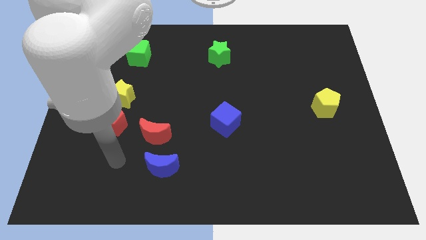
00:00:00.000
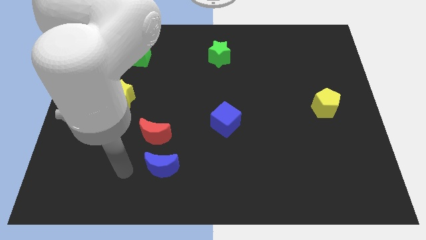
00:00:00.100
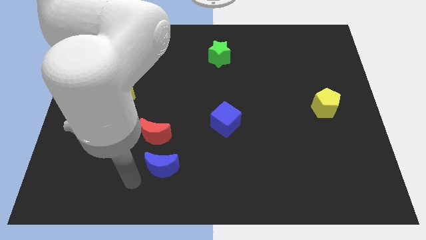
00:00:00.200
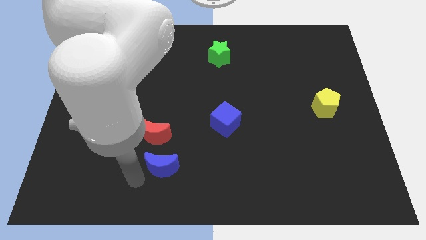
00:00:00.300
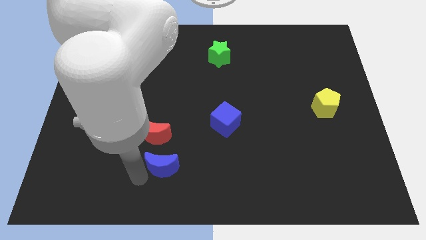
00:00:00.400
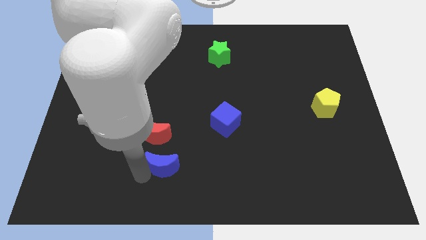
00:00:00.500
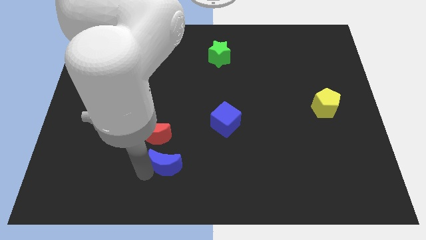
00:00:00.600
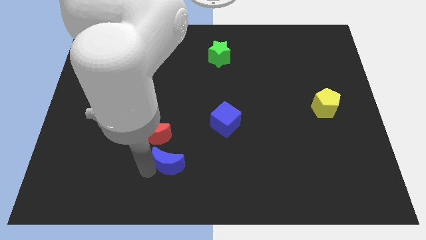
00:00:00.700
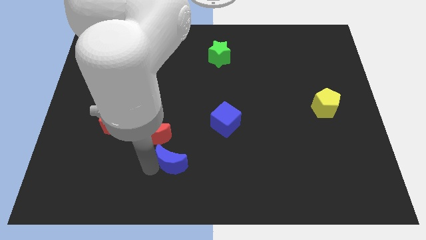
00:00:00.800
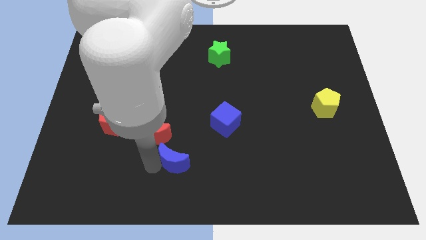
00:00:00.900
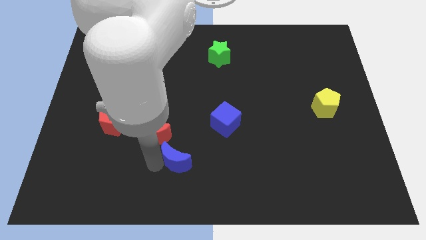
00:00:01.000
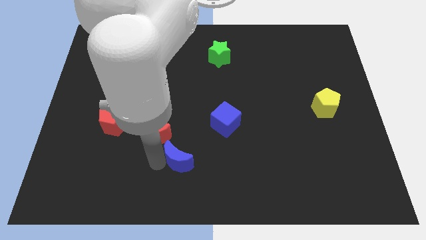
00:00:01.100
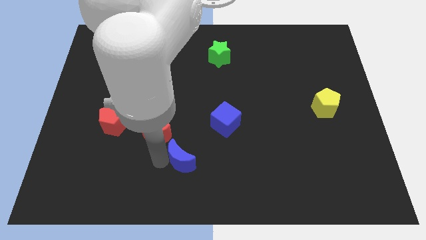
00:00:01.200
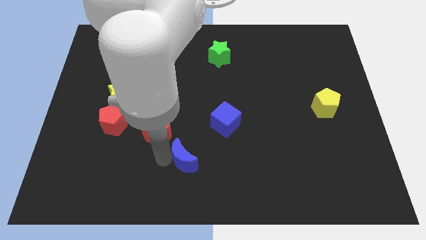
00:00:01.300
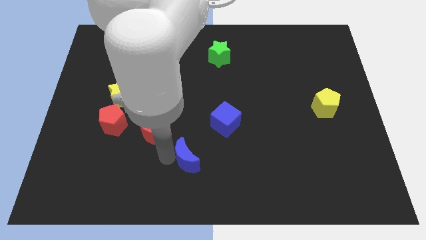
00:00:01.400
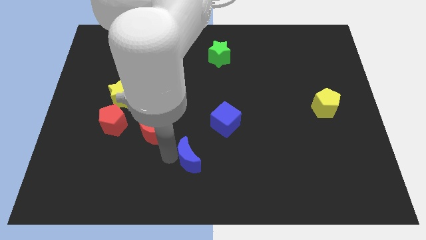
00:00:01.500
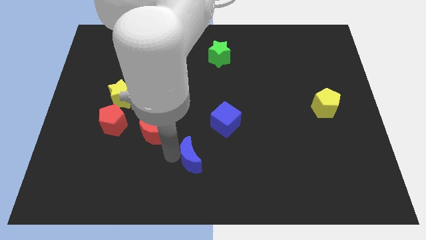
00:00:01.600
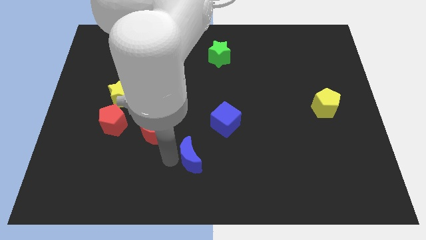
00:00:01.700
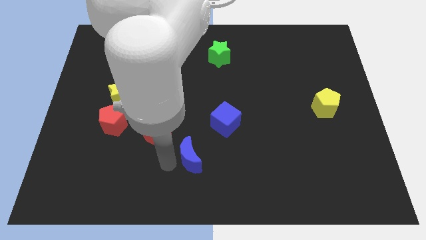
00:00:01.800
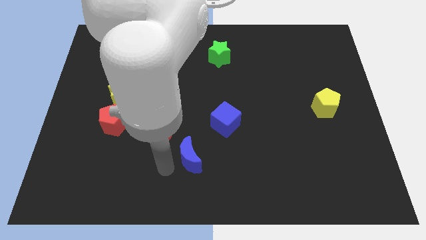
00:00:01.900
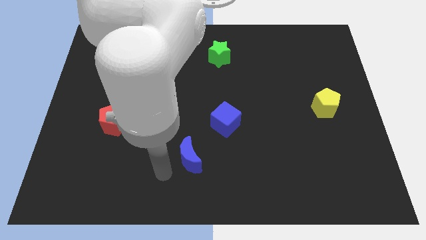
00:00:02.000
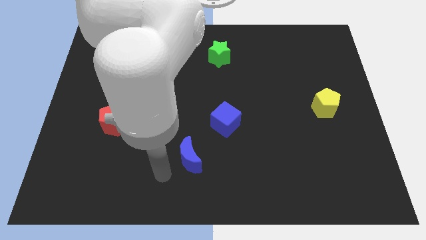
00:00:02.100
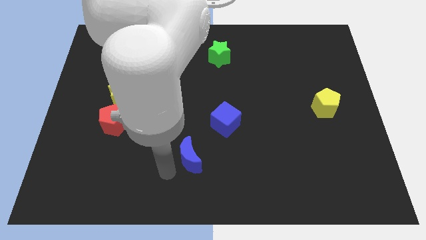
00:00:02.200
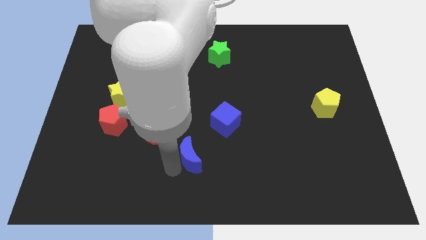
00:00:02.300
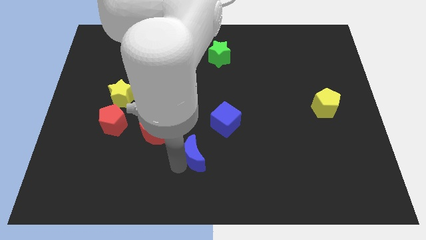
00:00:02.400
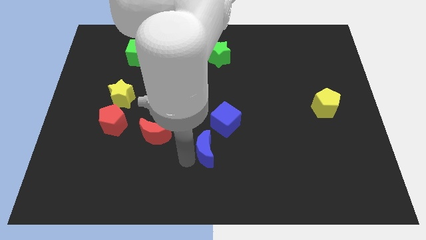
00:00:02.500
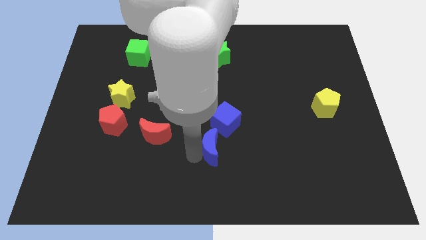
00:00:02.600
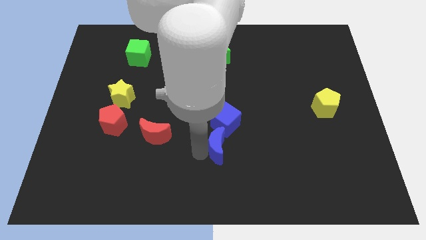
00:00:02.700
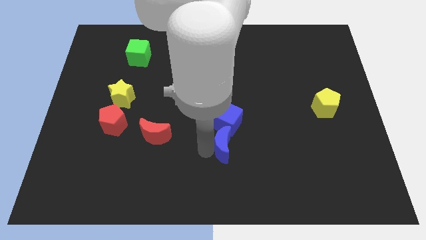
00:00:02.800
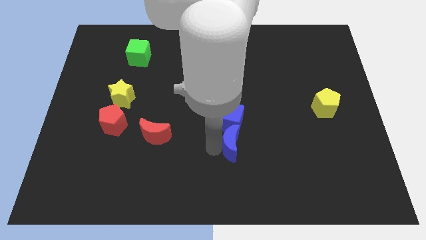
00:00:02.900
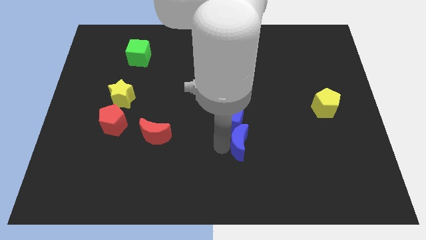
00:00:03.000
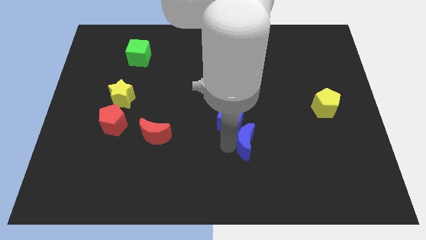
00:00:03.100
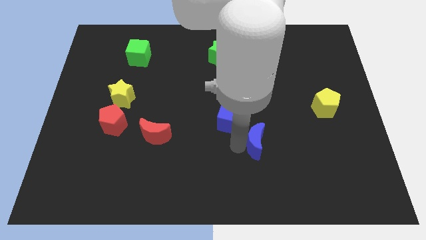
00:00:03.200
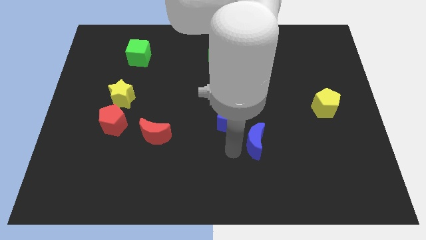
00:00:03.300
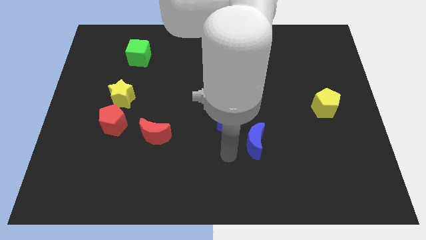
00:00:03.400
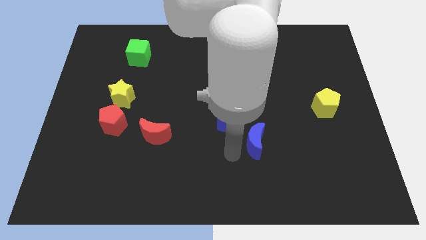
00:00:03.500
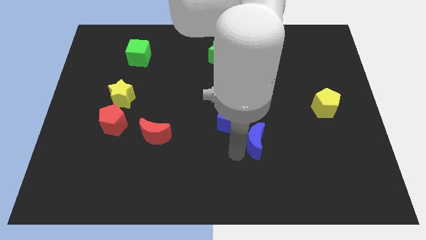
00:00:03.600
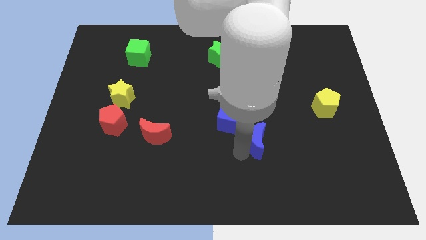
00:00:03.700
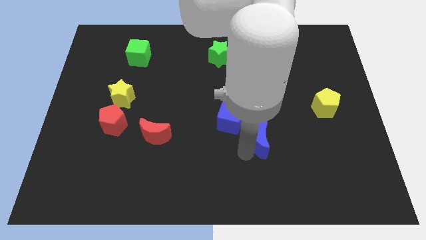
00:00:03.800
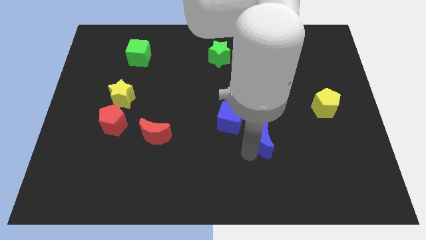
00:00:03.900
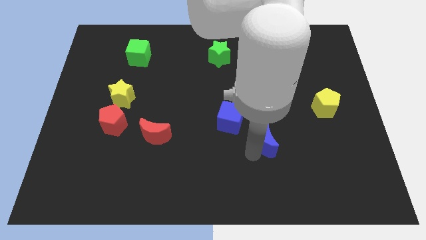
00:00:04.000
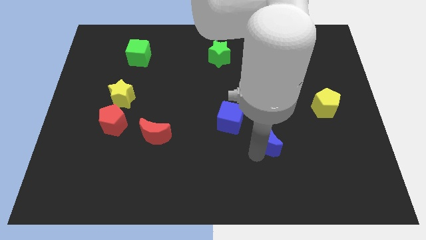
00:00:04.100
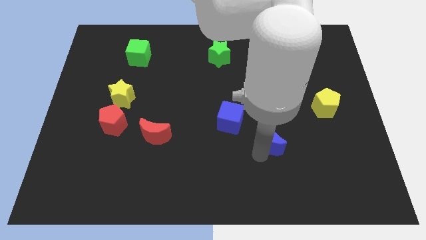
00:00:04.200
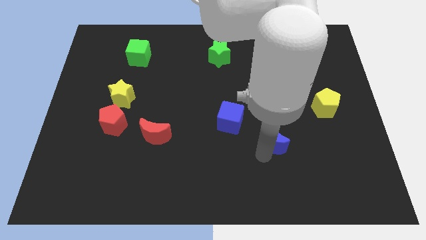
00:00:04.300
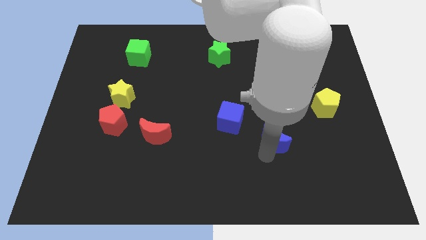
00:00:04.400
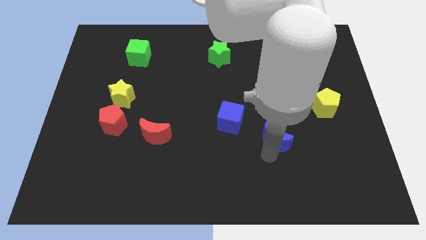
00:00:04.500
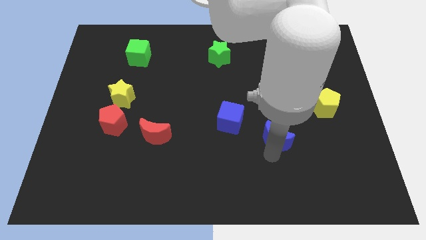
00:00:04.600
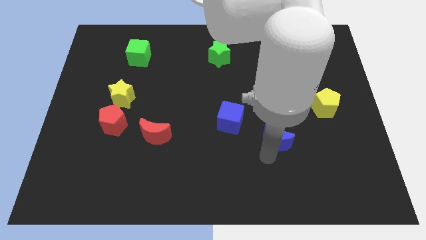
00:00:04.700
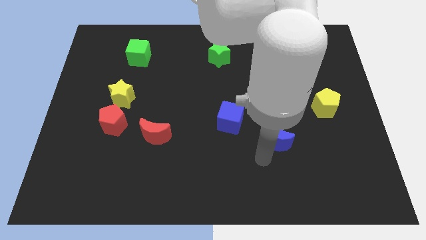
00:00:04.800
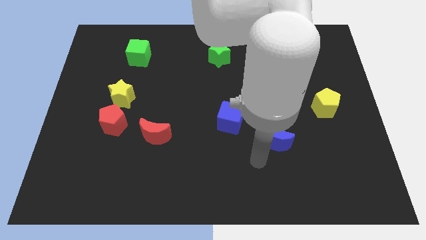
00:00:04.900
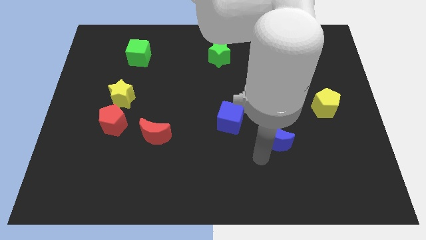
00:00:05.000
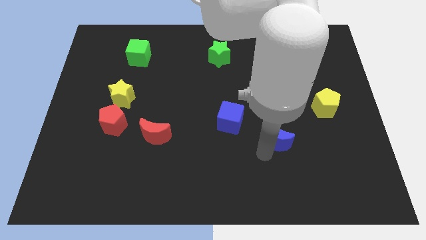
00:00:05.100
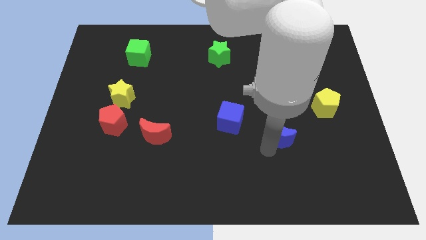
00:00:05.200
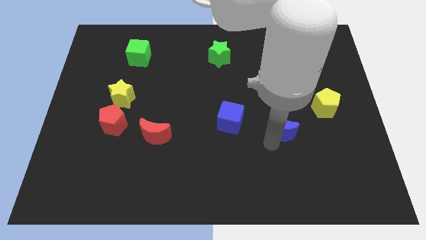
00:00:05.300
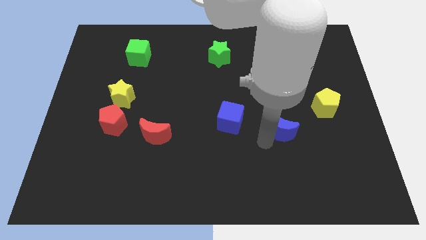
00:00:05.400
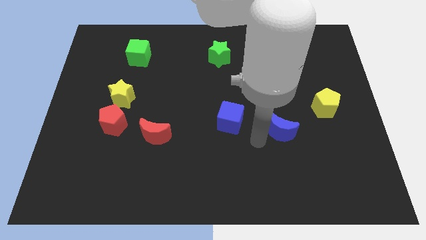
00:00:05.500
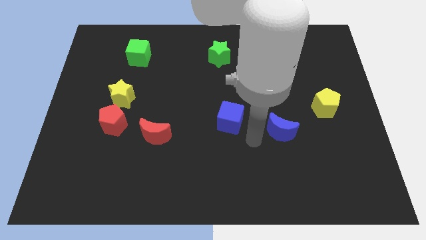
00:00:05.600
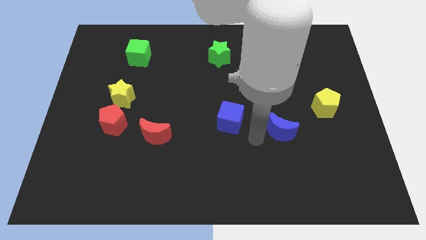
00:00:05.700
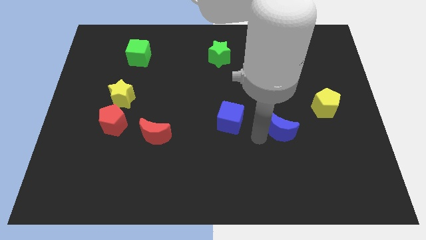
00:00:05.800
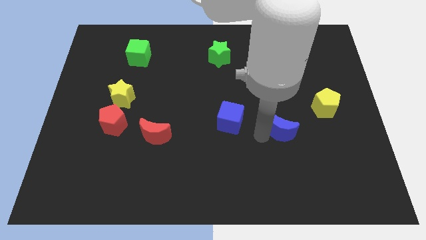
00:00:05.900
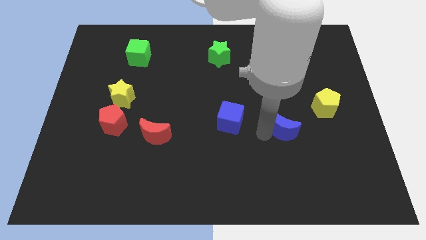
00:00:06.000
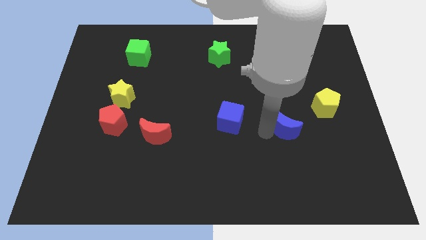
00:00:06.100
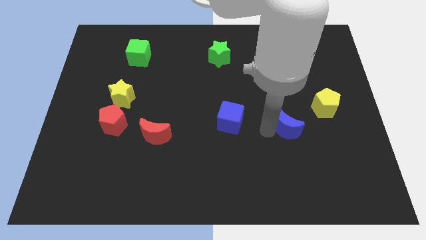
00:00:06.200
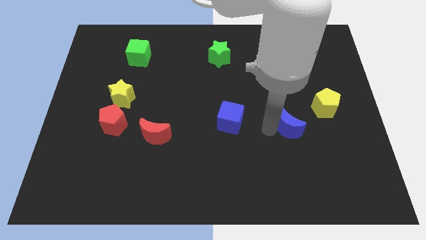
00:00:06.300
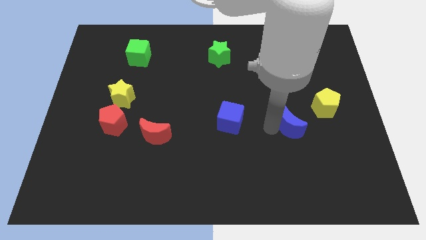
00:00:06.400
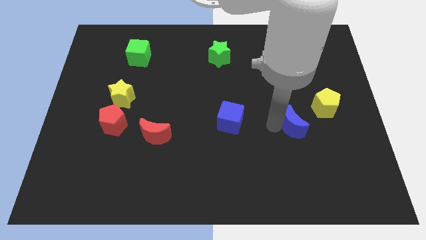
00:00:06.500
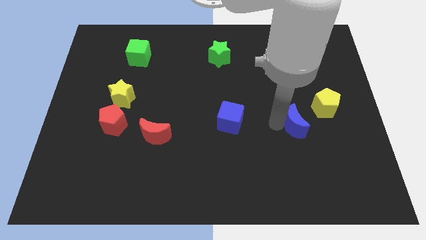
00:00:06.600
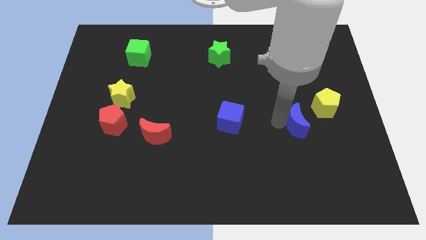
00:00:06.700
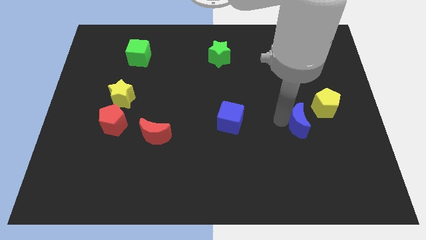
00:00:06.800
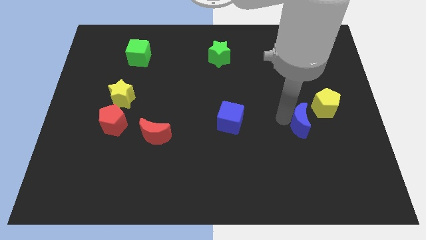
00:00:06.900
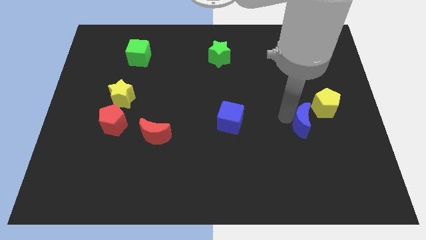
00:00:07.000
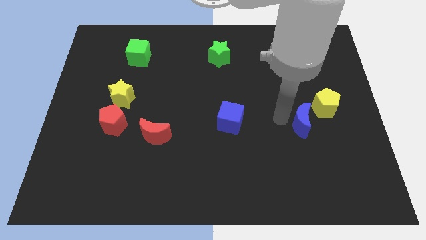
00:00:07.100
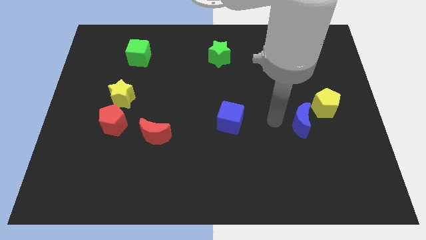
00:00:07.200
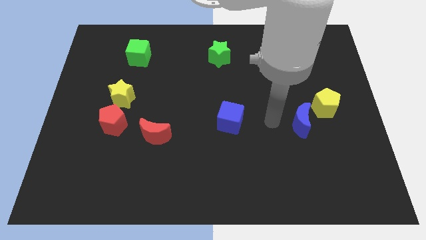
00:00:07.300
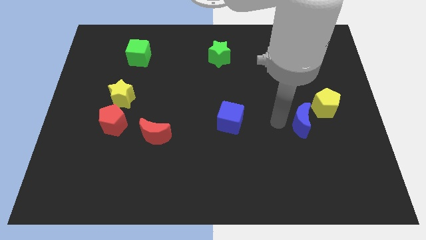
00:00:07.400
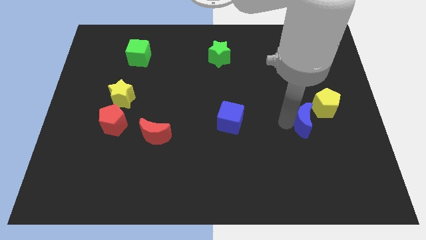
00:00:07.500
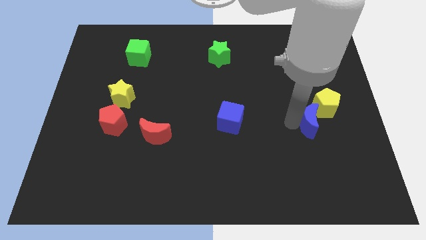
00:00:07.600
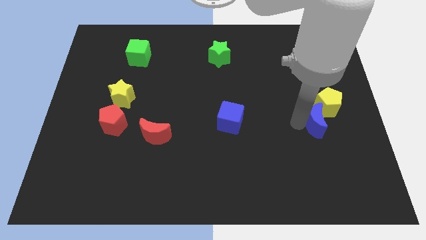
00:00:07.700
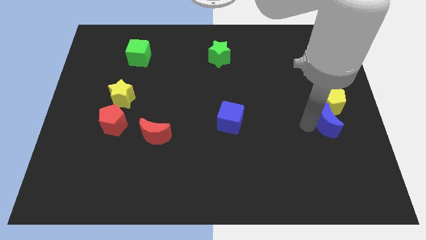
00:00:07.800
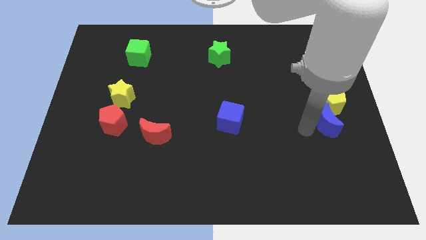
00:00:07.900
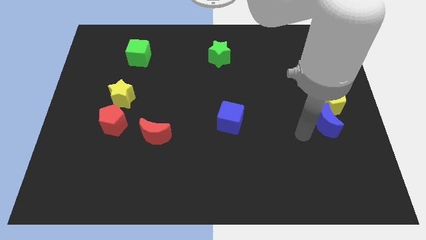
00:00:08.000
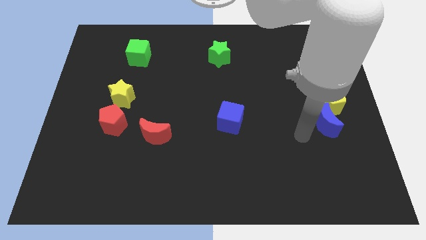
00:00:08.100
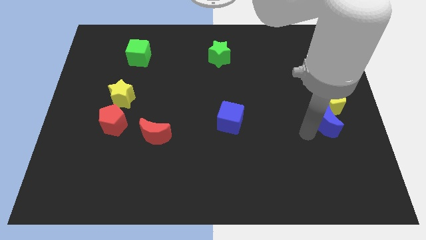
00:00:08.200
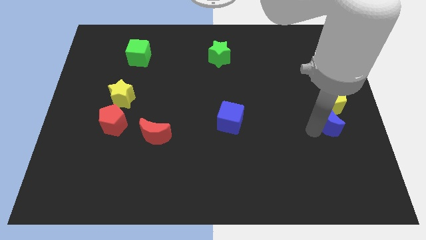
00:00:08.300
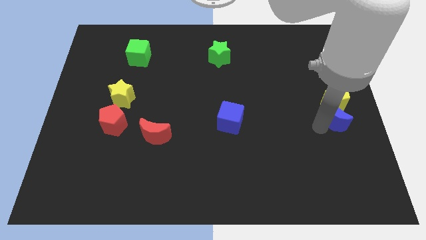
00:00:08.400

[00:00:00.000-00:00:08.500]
move the blue moon to the center right
